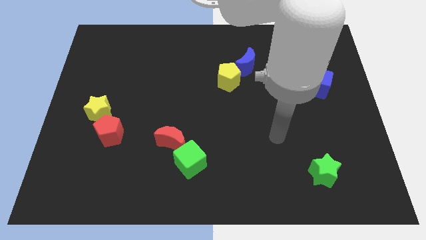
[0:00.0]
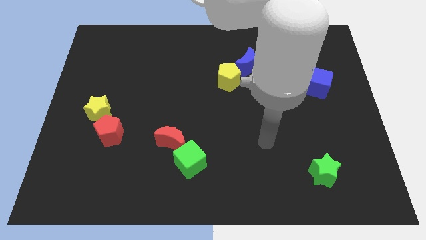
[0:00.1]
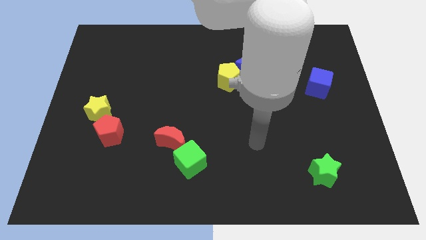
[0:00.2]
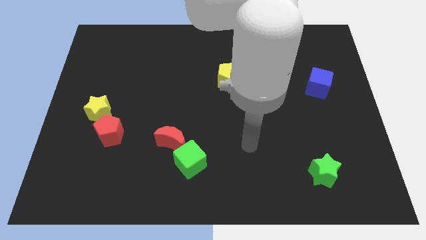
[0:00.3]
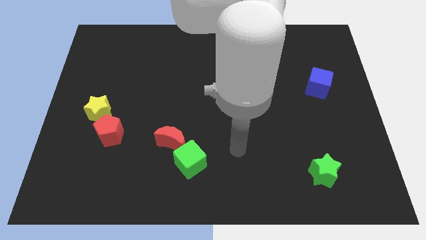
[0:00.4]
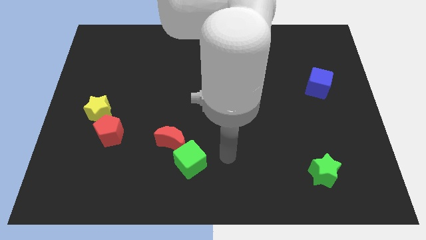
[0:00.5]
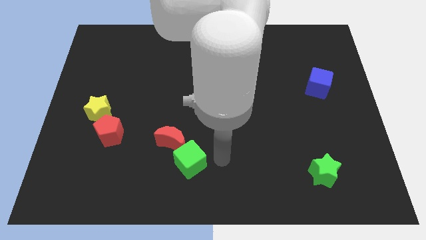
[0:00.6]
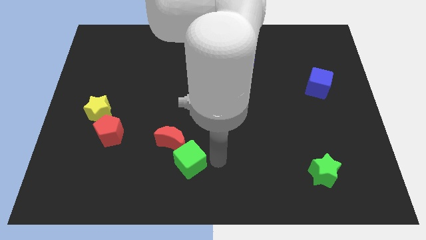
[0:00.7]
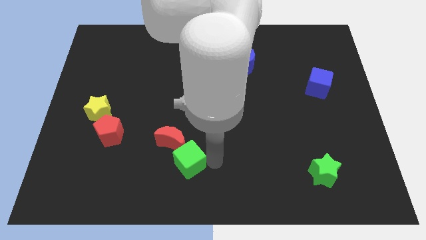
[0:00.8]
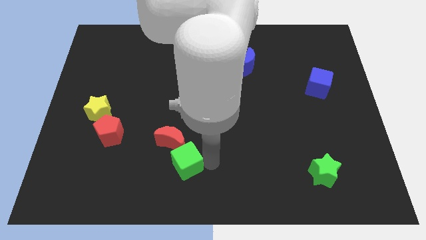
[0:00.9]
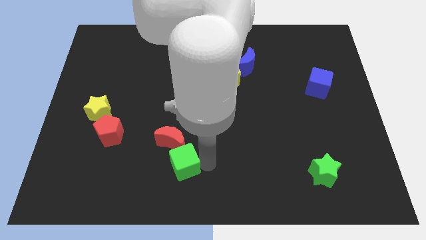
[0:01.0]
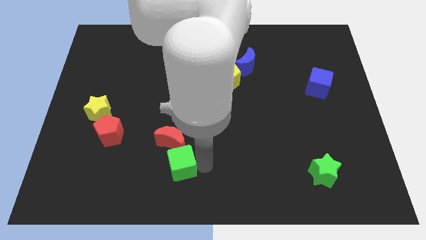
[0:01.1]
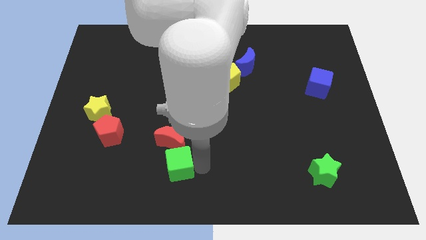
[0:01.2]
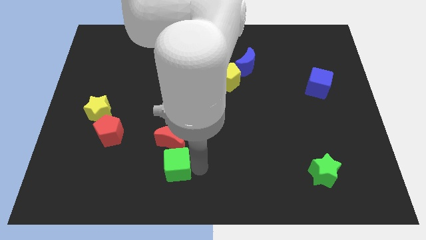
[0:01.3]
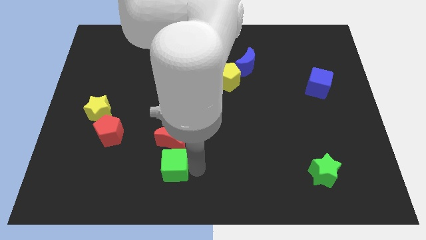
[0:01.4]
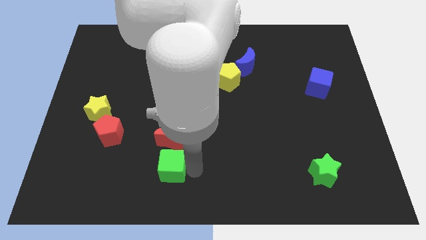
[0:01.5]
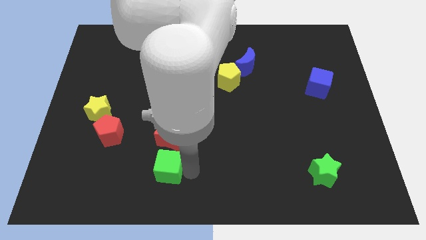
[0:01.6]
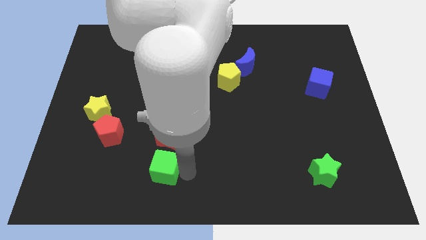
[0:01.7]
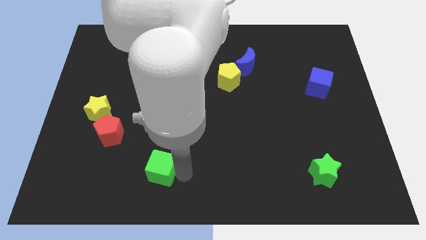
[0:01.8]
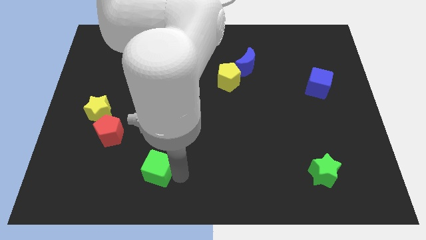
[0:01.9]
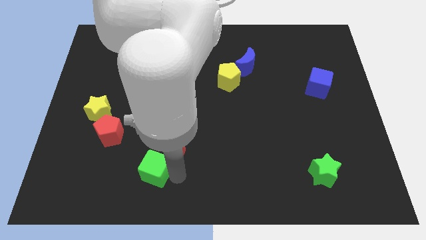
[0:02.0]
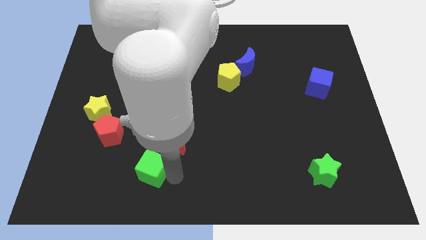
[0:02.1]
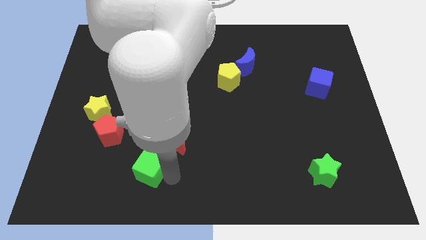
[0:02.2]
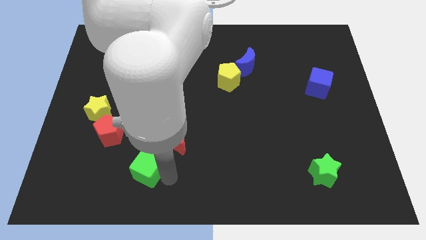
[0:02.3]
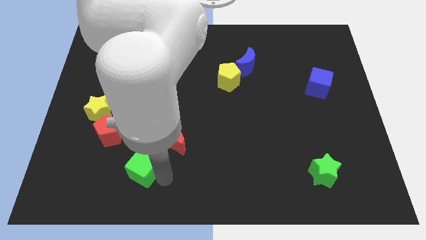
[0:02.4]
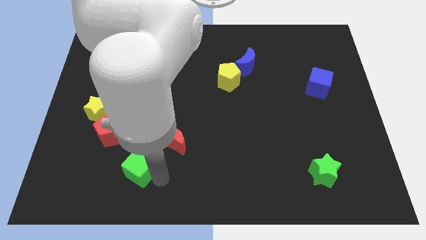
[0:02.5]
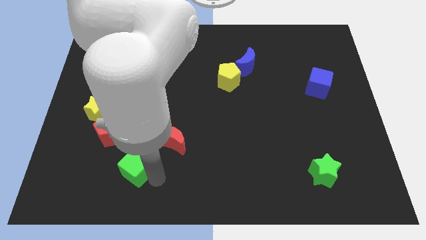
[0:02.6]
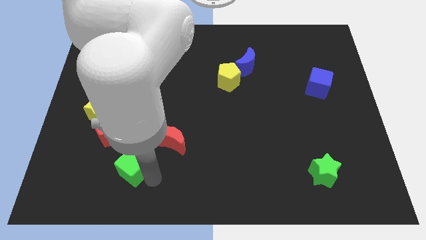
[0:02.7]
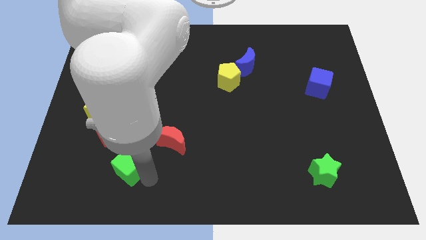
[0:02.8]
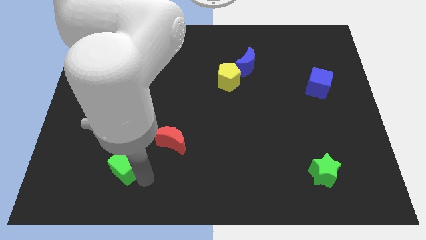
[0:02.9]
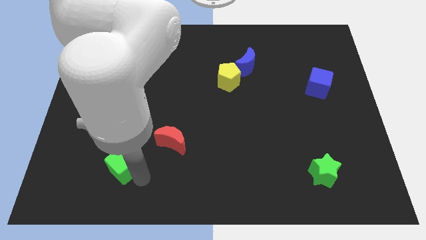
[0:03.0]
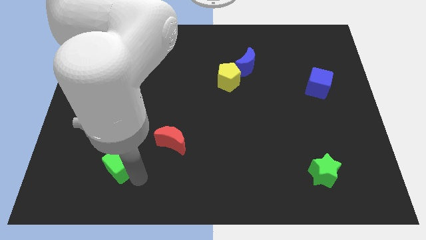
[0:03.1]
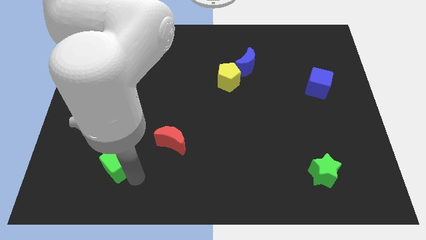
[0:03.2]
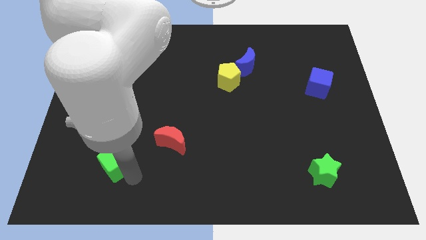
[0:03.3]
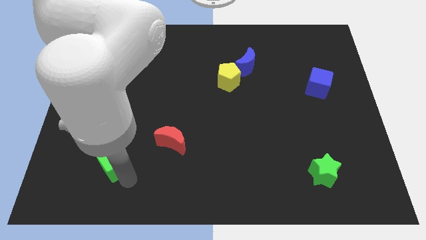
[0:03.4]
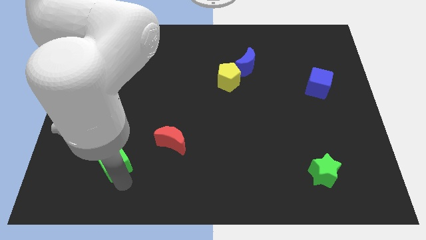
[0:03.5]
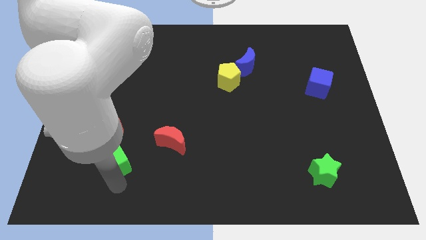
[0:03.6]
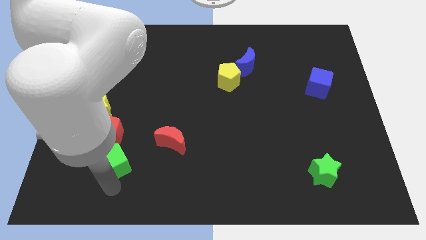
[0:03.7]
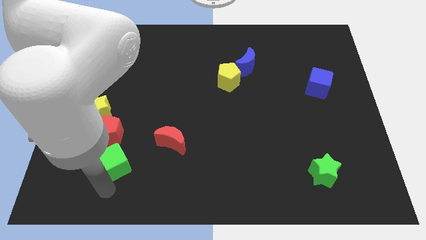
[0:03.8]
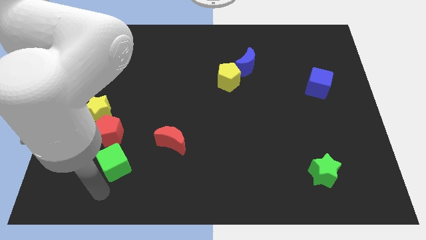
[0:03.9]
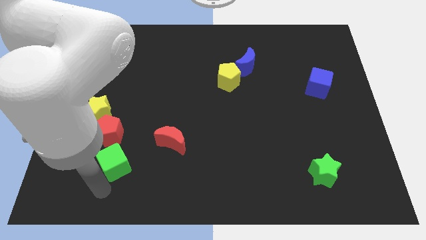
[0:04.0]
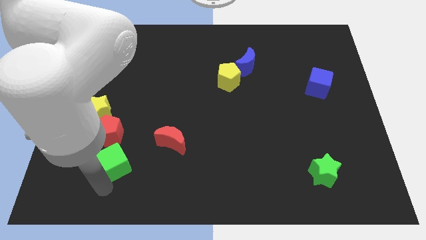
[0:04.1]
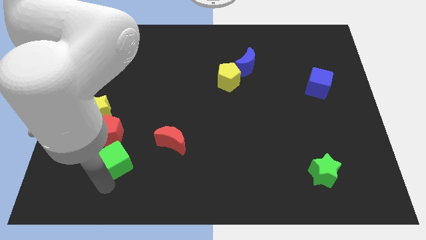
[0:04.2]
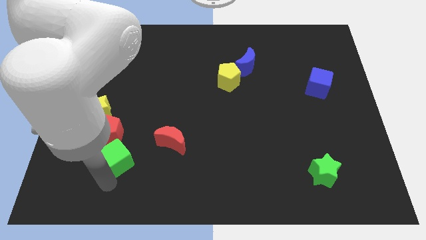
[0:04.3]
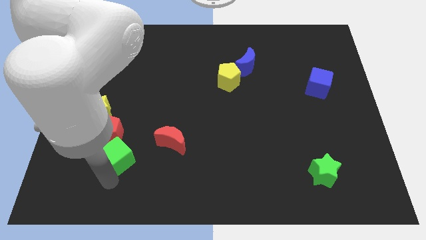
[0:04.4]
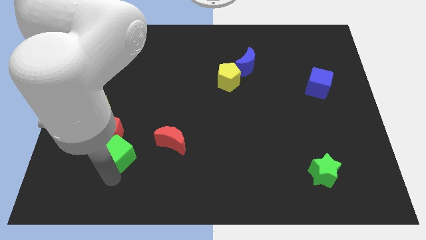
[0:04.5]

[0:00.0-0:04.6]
slide the green cube towards the red pentagon

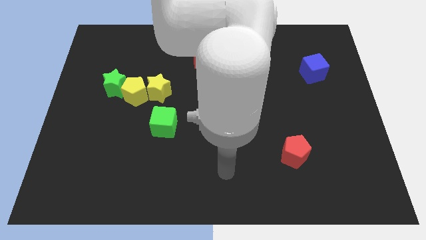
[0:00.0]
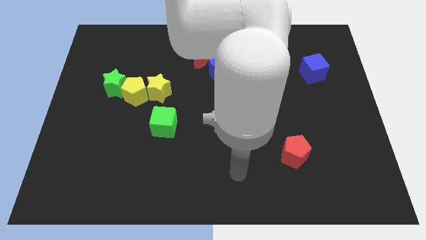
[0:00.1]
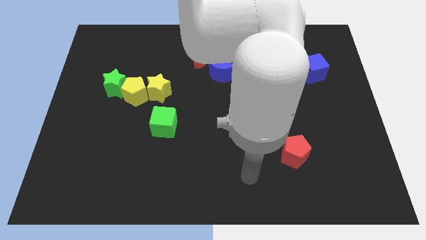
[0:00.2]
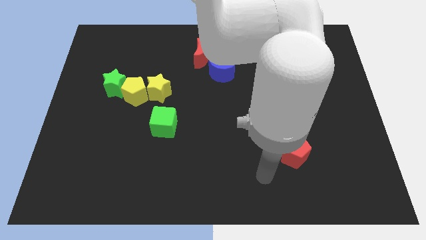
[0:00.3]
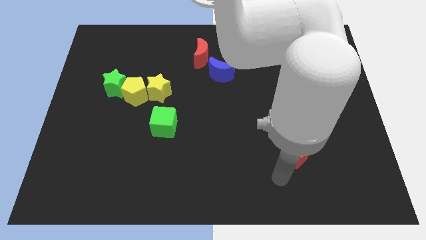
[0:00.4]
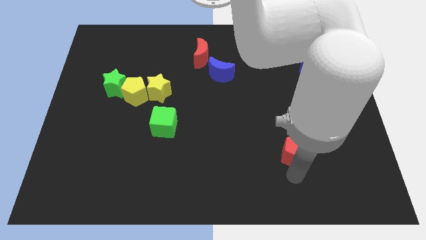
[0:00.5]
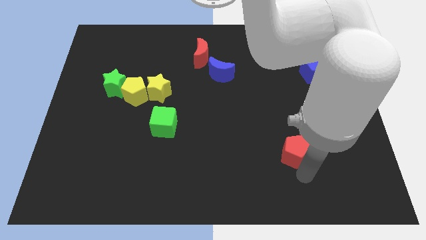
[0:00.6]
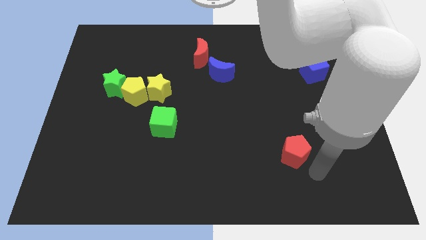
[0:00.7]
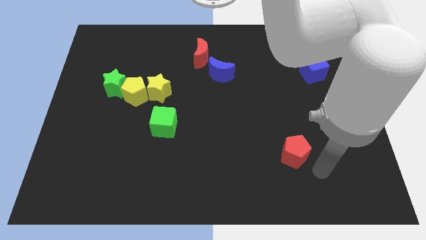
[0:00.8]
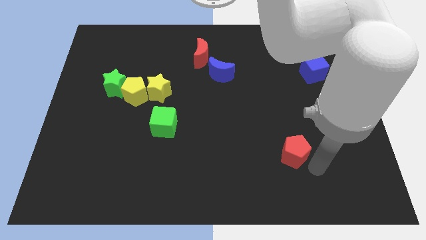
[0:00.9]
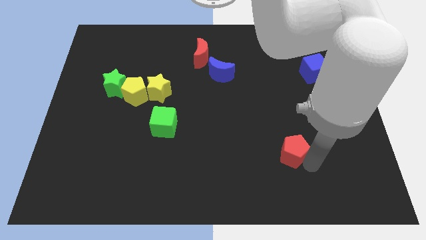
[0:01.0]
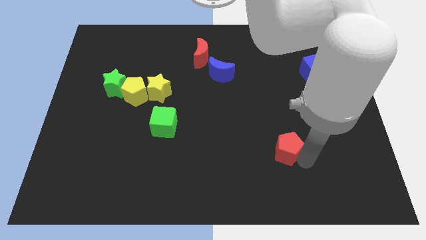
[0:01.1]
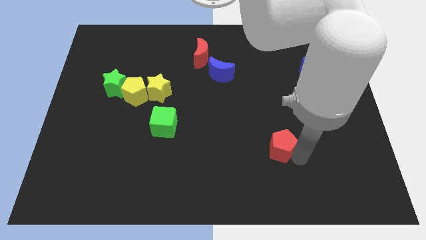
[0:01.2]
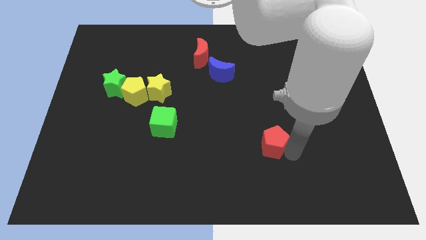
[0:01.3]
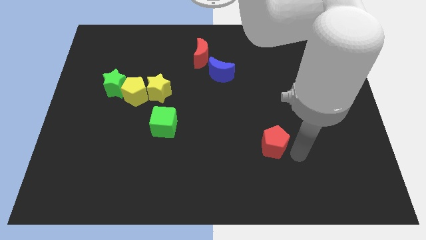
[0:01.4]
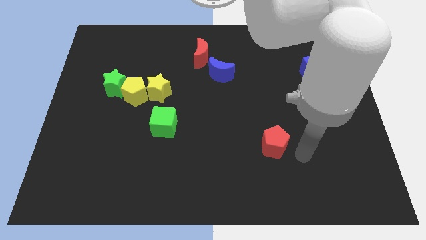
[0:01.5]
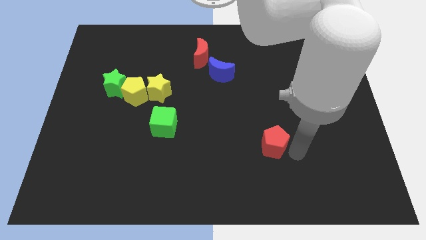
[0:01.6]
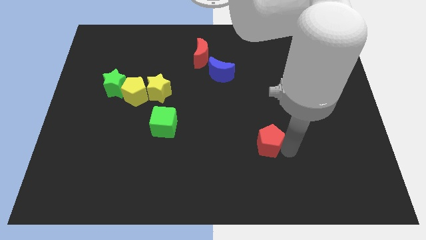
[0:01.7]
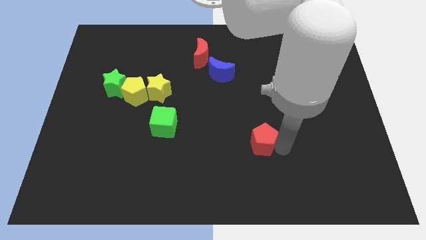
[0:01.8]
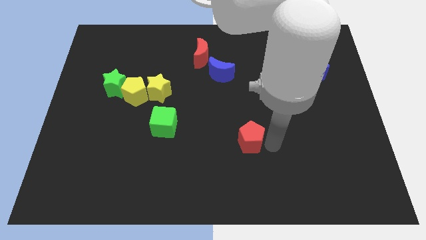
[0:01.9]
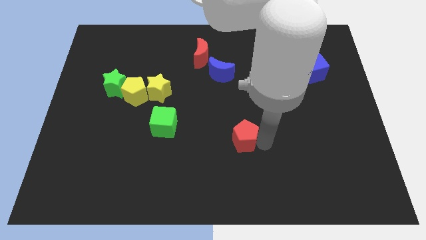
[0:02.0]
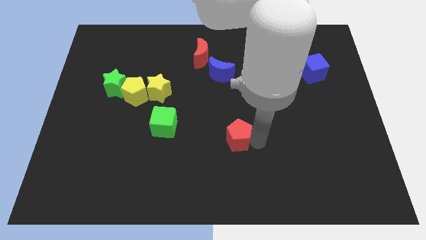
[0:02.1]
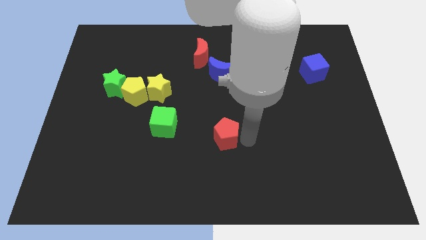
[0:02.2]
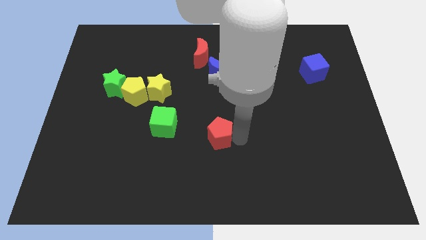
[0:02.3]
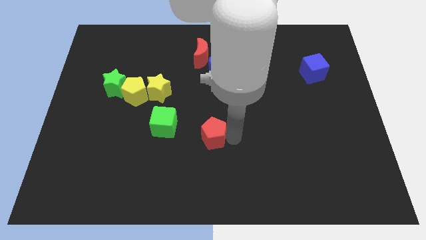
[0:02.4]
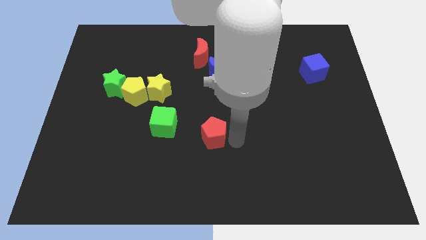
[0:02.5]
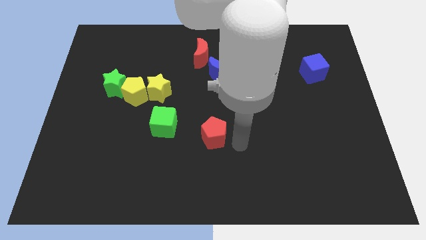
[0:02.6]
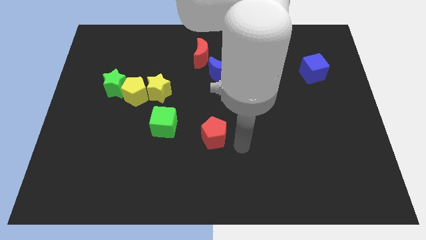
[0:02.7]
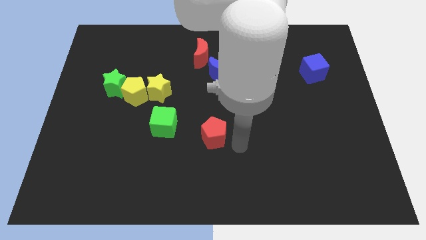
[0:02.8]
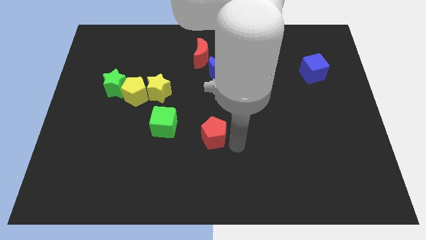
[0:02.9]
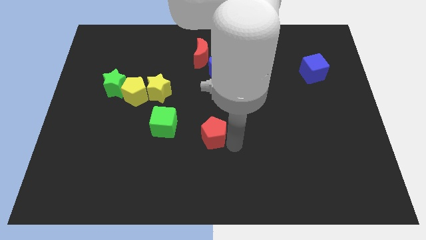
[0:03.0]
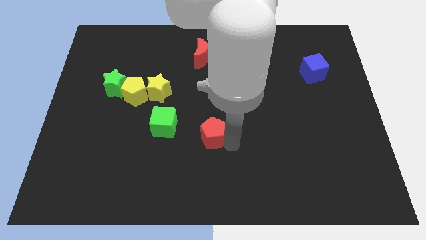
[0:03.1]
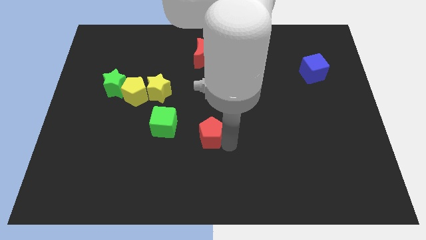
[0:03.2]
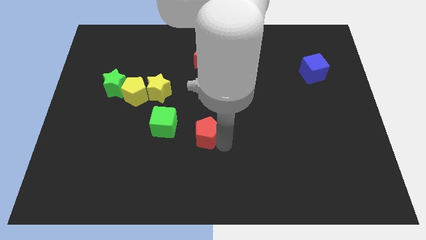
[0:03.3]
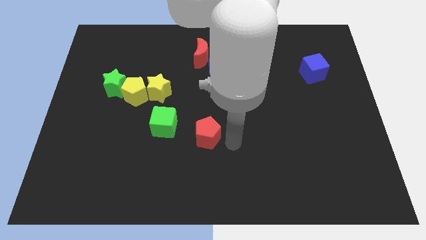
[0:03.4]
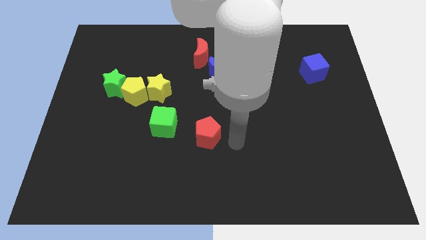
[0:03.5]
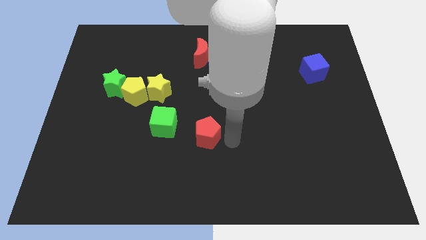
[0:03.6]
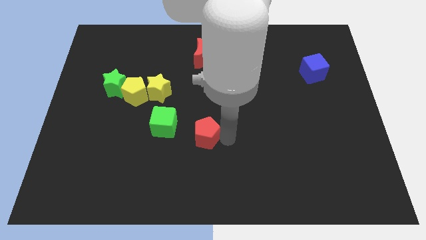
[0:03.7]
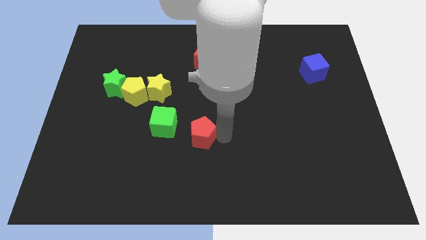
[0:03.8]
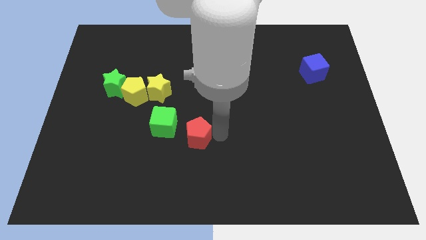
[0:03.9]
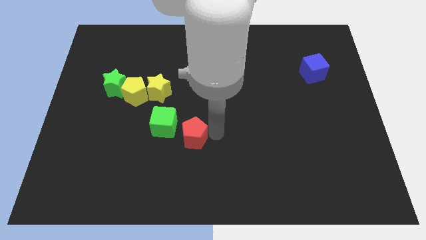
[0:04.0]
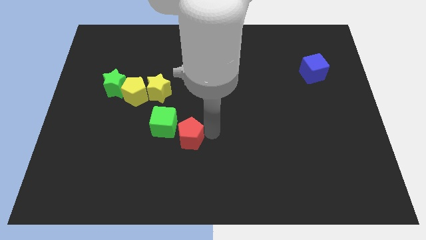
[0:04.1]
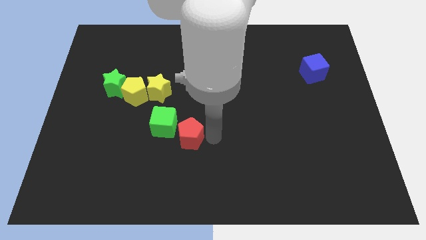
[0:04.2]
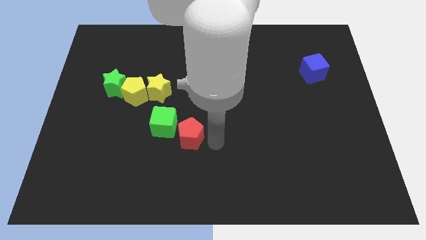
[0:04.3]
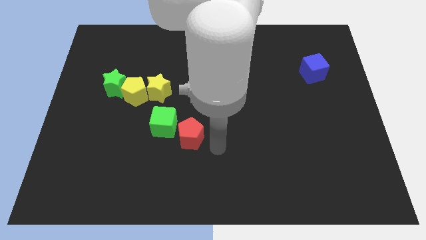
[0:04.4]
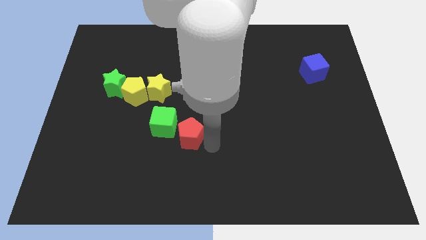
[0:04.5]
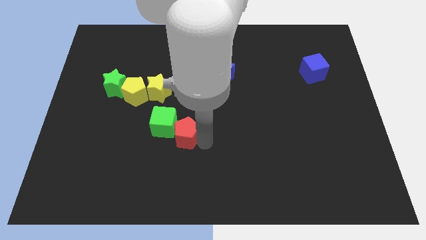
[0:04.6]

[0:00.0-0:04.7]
put the red pentagon towards the green cube
